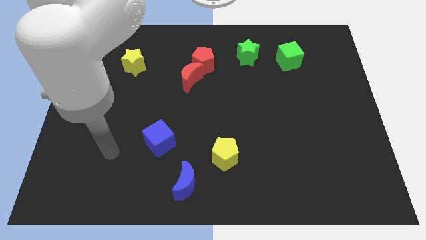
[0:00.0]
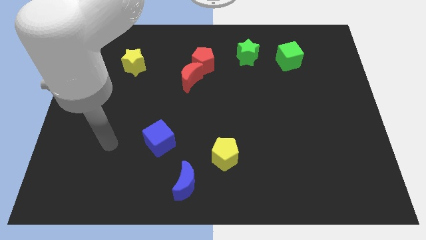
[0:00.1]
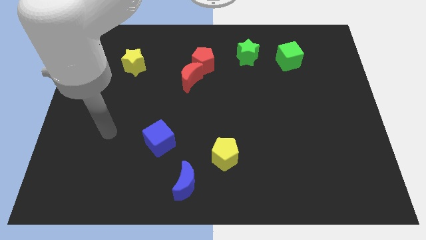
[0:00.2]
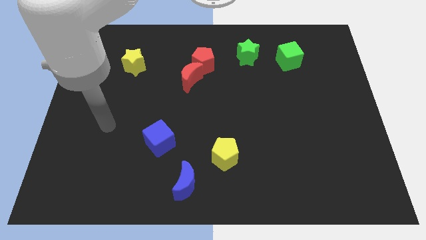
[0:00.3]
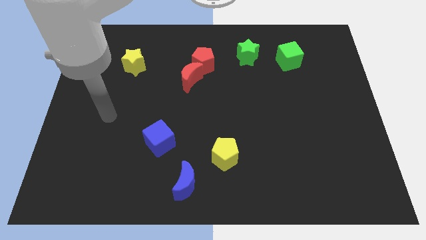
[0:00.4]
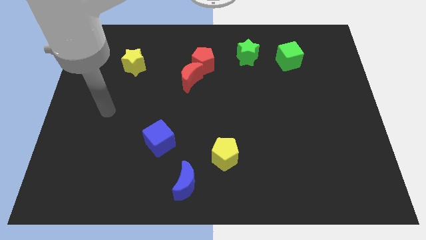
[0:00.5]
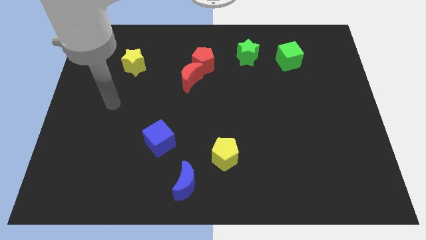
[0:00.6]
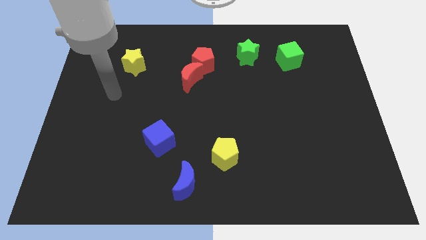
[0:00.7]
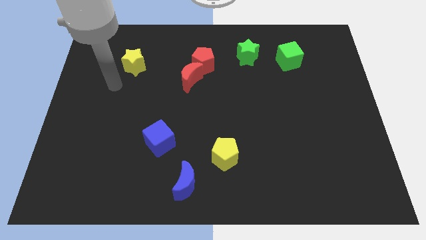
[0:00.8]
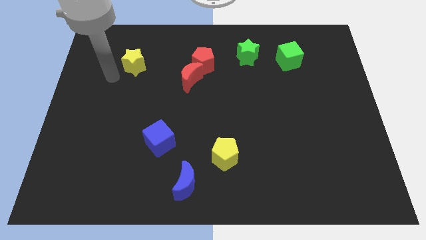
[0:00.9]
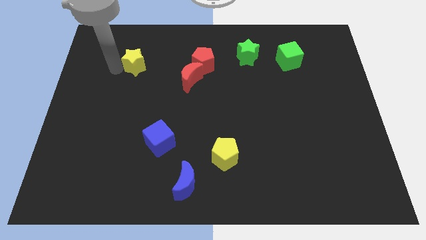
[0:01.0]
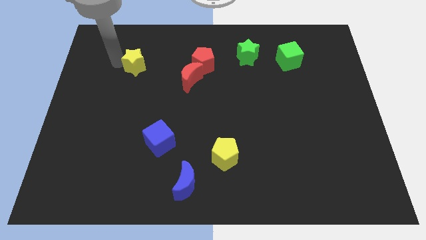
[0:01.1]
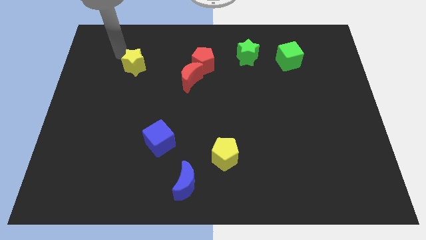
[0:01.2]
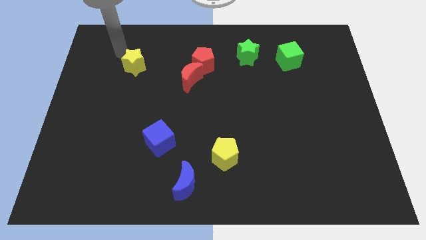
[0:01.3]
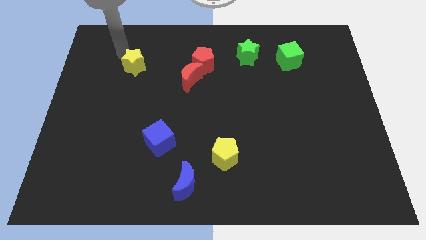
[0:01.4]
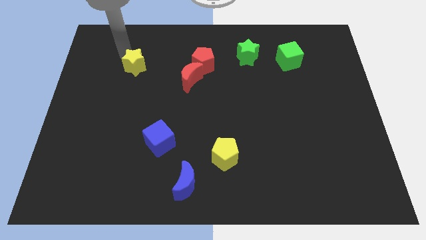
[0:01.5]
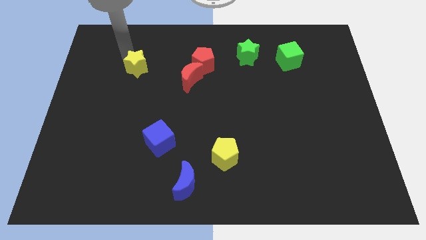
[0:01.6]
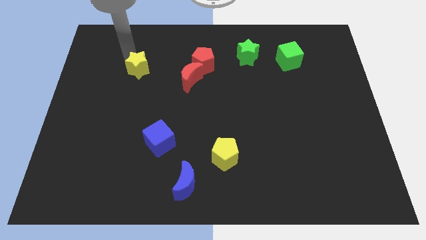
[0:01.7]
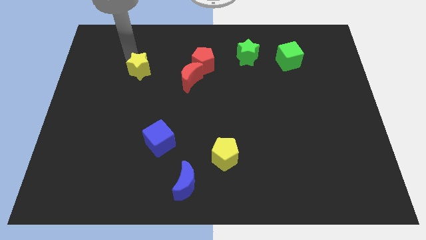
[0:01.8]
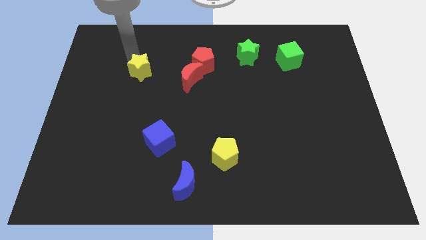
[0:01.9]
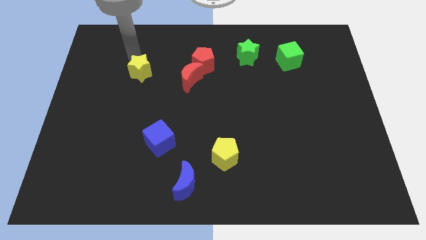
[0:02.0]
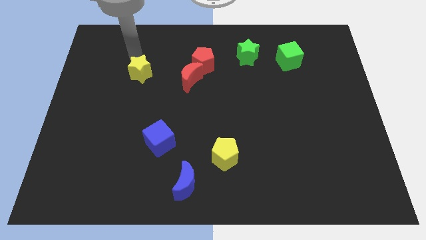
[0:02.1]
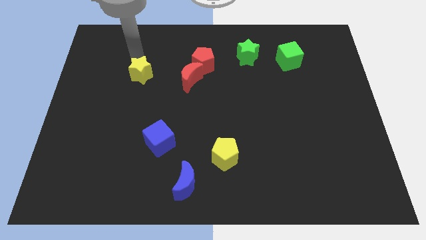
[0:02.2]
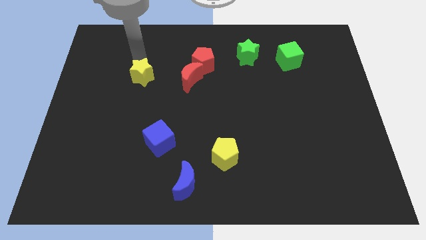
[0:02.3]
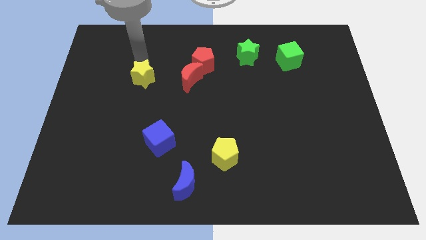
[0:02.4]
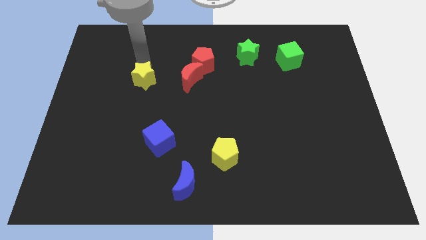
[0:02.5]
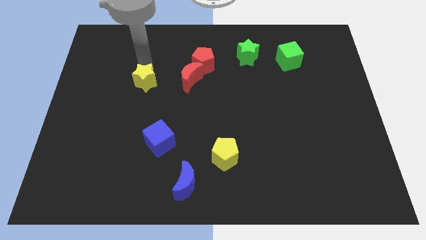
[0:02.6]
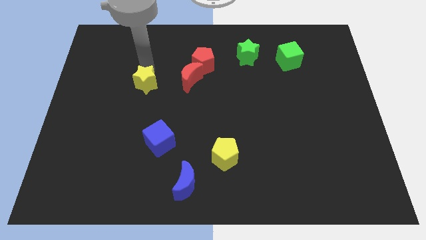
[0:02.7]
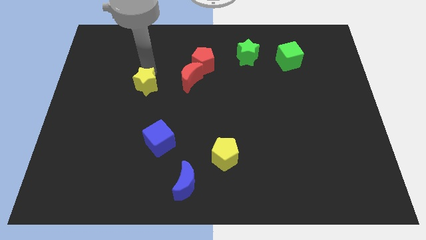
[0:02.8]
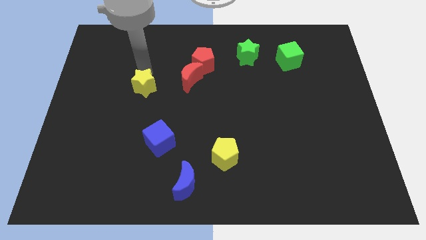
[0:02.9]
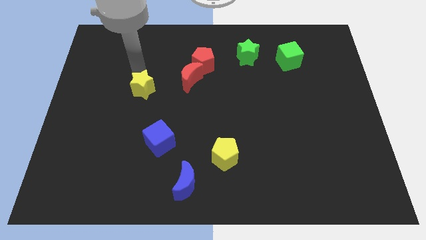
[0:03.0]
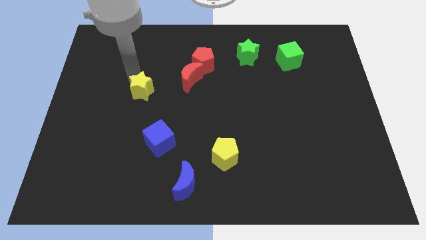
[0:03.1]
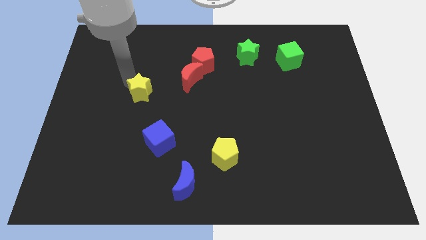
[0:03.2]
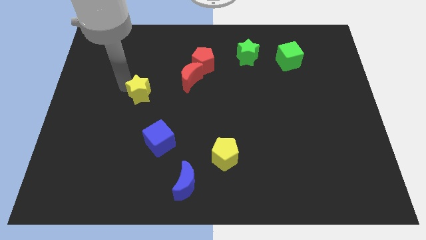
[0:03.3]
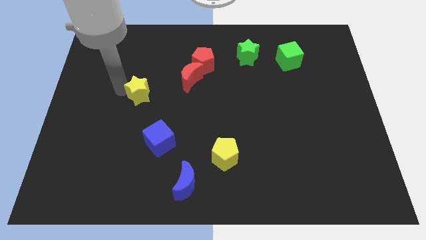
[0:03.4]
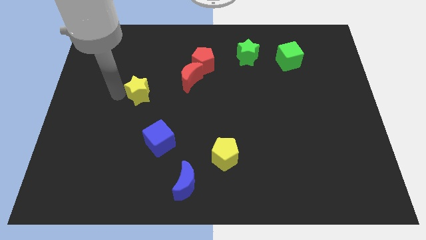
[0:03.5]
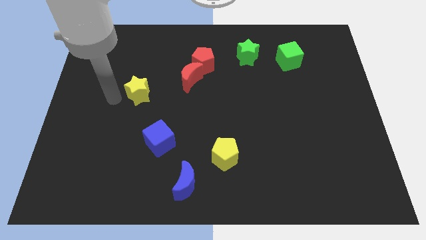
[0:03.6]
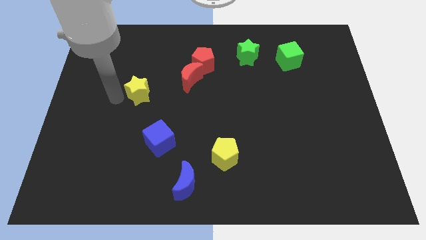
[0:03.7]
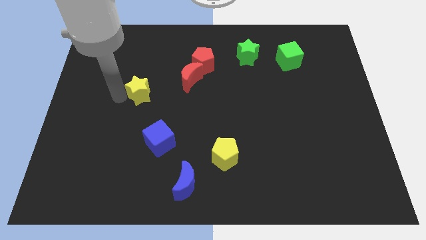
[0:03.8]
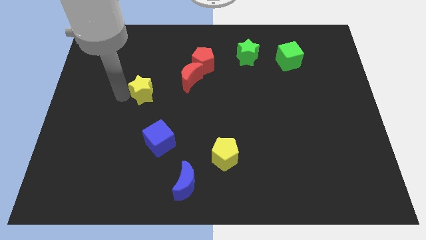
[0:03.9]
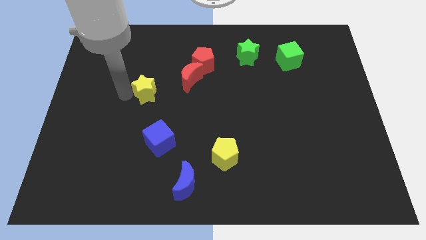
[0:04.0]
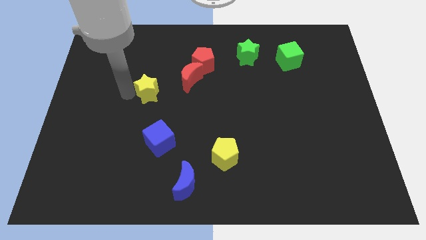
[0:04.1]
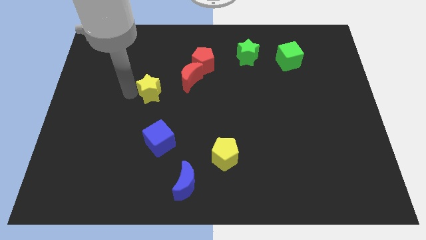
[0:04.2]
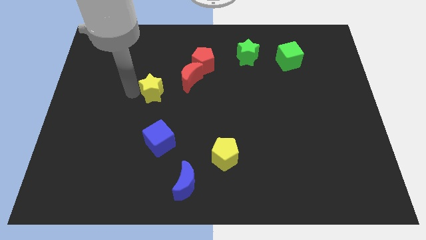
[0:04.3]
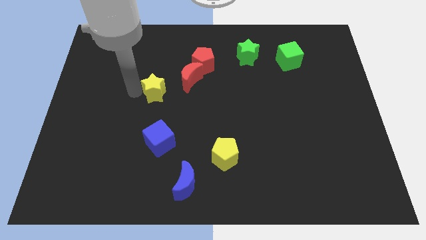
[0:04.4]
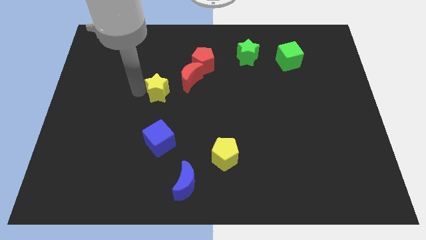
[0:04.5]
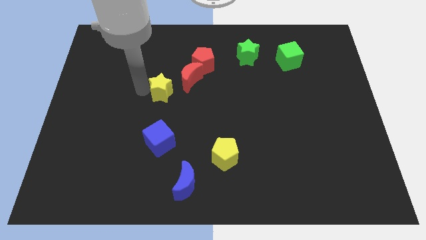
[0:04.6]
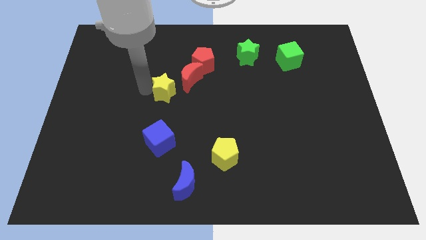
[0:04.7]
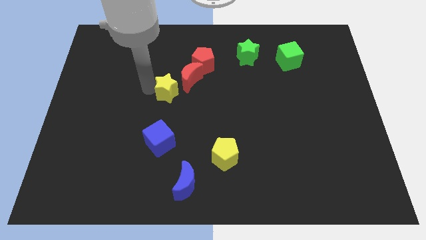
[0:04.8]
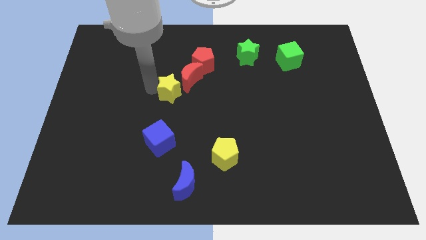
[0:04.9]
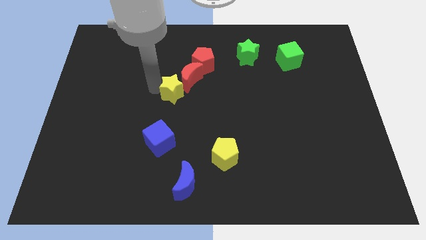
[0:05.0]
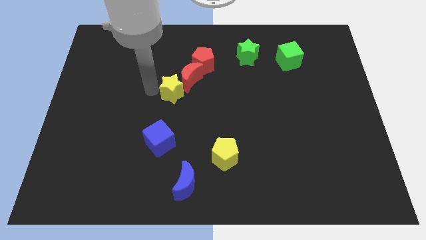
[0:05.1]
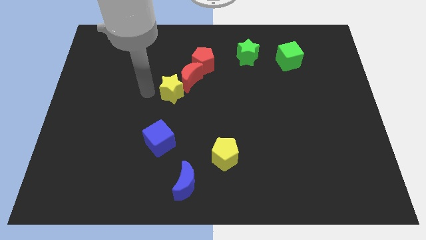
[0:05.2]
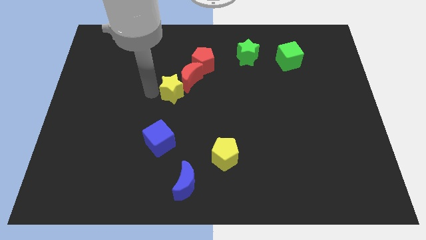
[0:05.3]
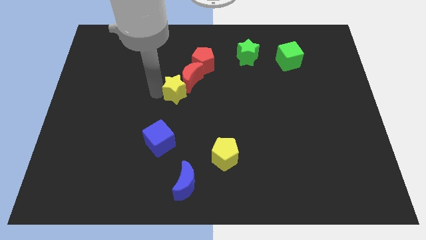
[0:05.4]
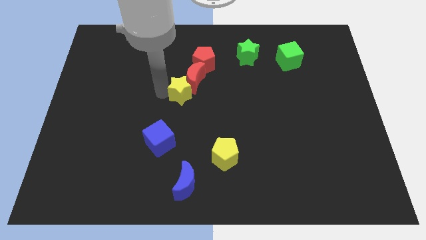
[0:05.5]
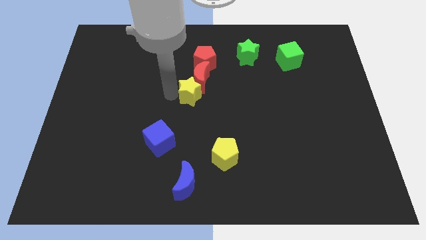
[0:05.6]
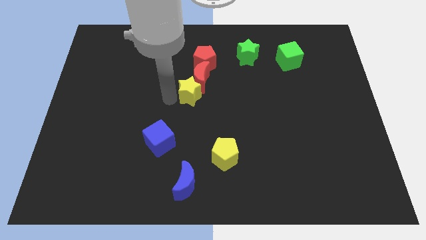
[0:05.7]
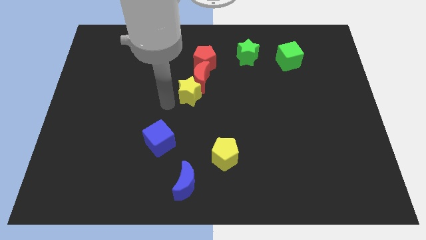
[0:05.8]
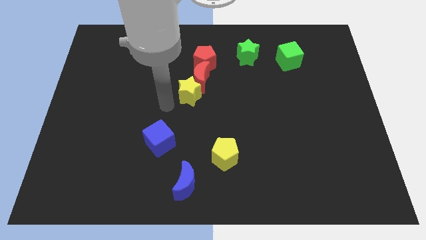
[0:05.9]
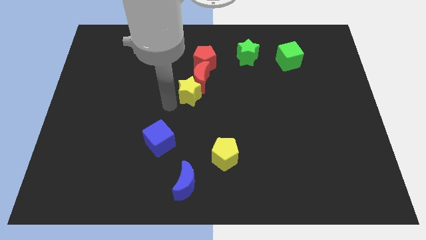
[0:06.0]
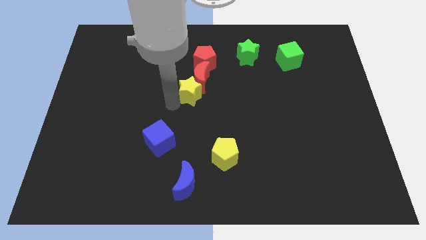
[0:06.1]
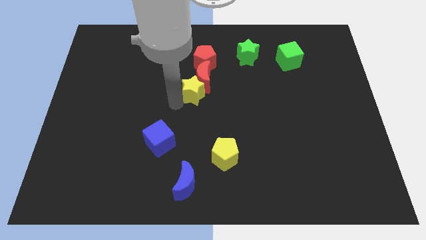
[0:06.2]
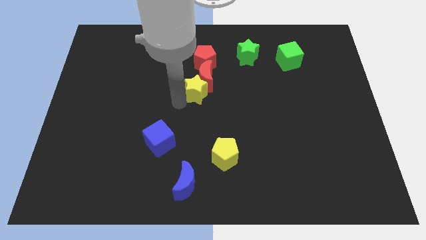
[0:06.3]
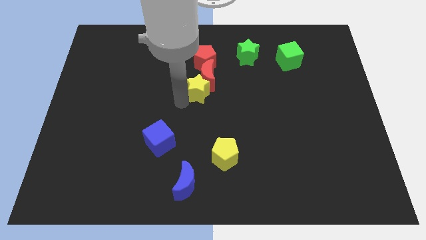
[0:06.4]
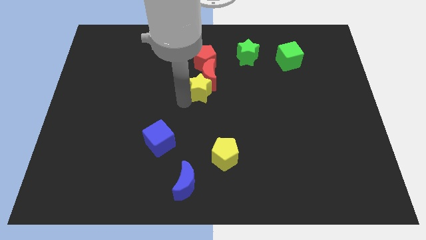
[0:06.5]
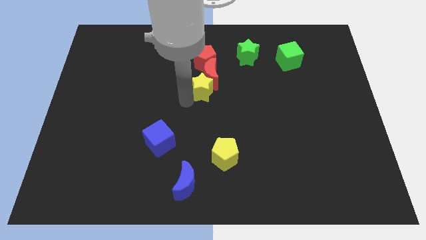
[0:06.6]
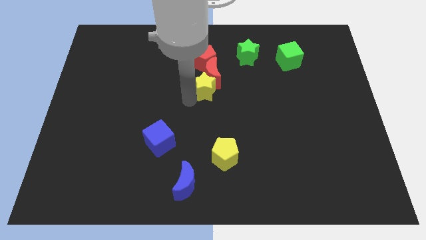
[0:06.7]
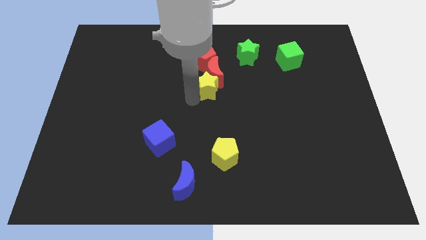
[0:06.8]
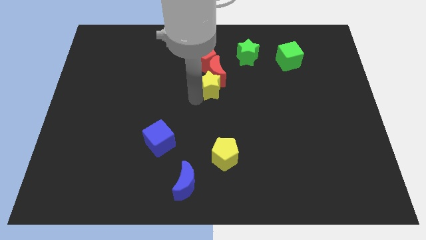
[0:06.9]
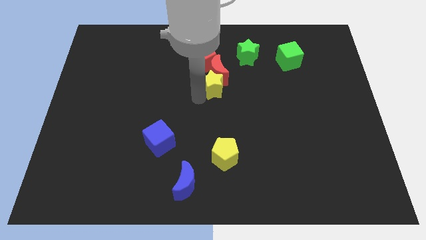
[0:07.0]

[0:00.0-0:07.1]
put the yellow star to the bottom right side of the red pentagon
